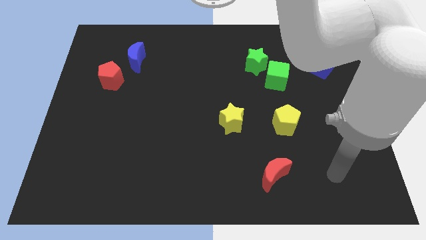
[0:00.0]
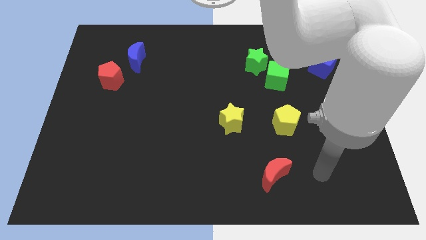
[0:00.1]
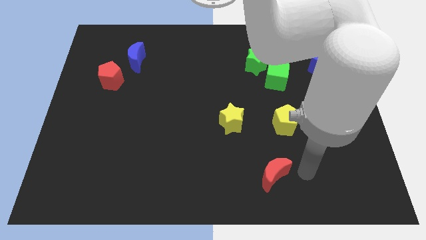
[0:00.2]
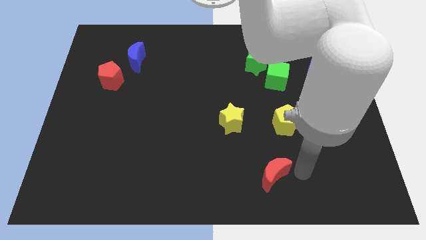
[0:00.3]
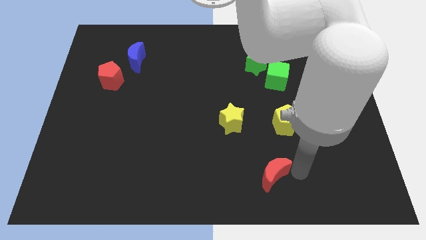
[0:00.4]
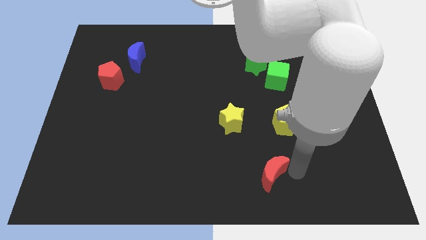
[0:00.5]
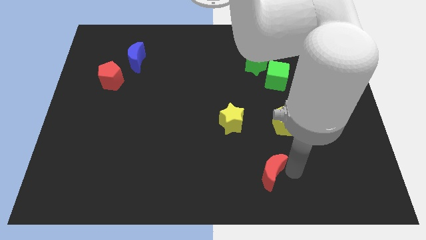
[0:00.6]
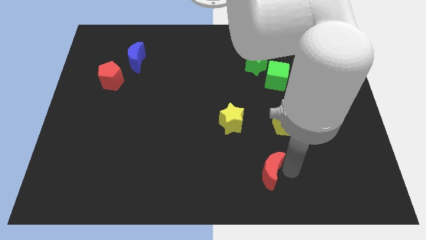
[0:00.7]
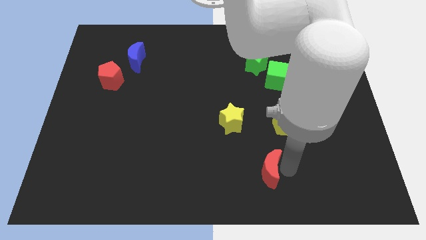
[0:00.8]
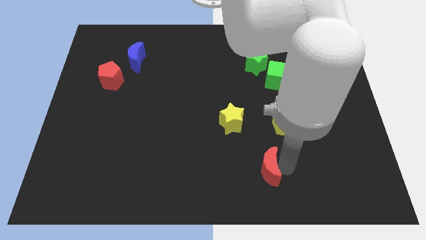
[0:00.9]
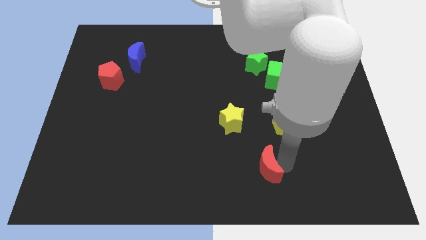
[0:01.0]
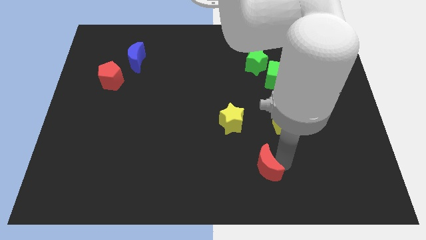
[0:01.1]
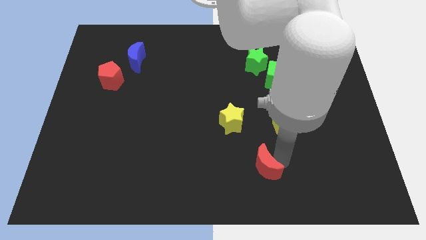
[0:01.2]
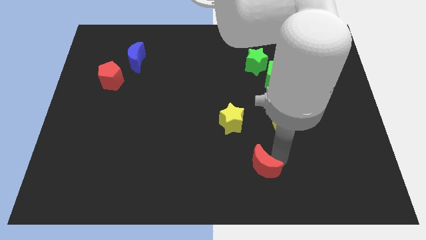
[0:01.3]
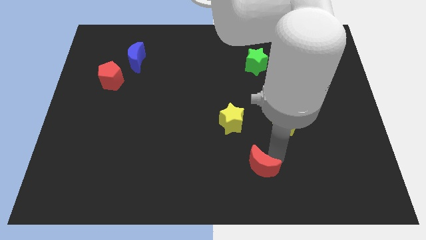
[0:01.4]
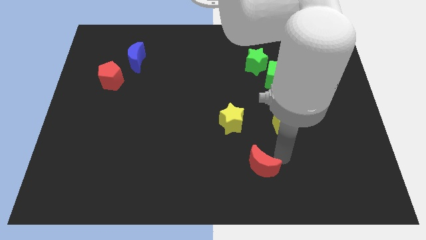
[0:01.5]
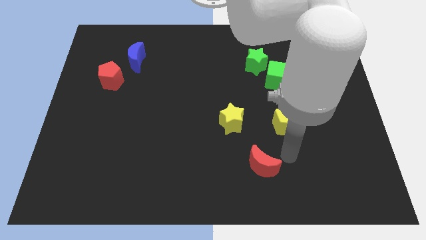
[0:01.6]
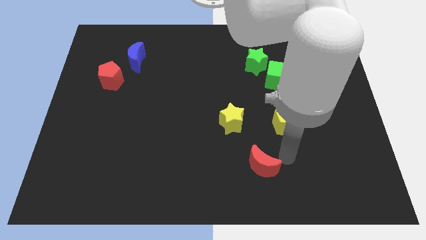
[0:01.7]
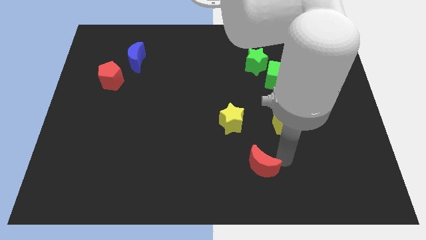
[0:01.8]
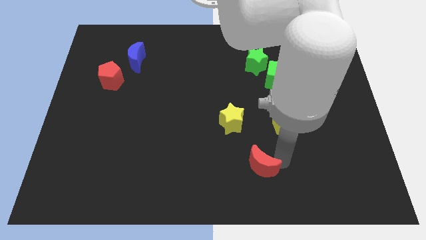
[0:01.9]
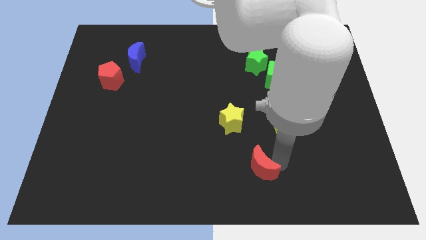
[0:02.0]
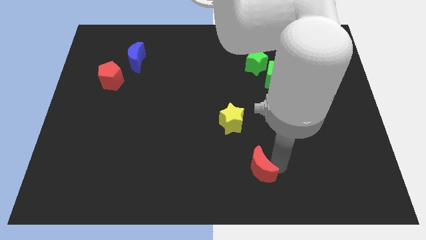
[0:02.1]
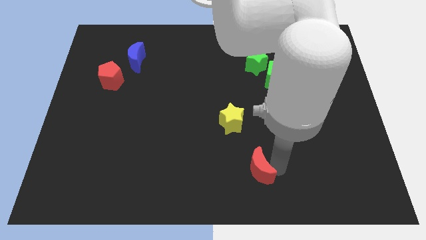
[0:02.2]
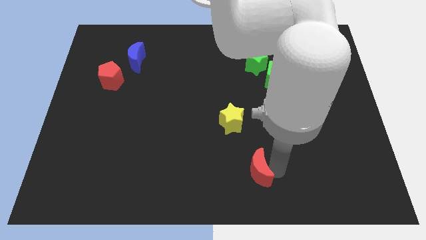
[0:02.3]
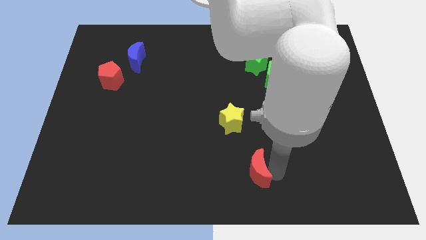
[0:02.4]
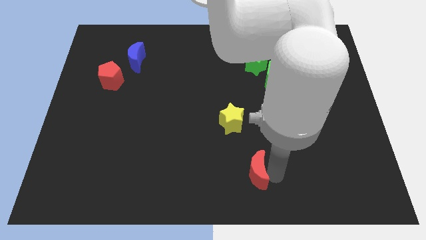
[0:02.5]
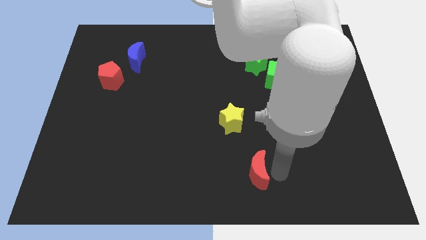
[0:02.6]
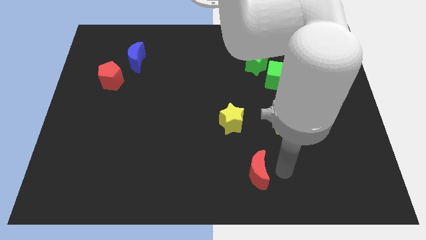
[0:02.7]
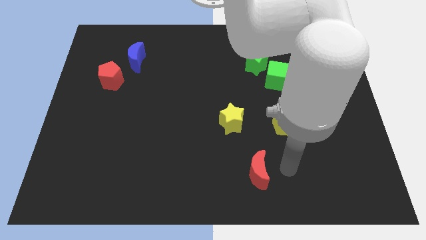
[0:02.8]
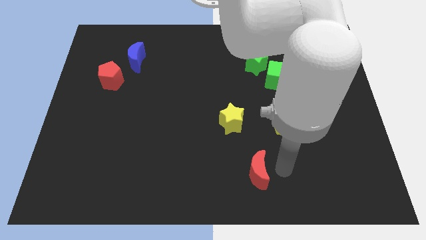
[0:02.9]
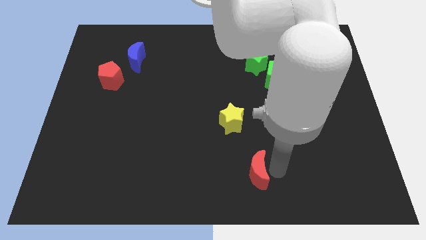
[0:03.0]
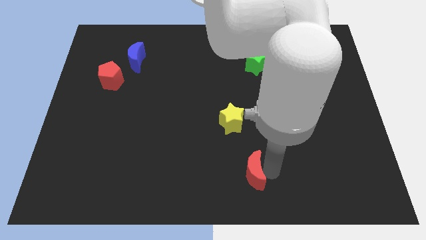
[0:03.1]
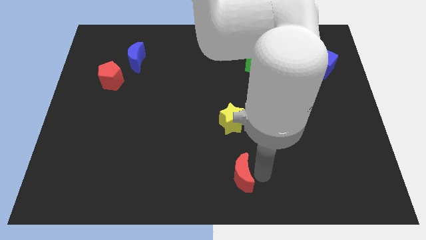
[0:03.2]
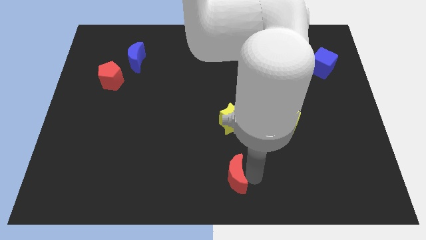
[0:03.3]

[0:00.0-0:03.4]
slide the red moon a little bit left

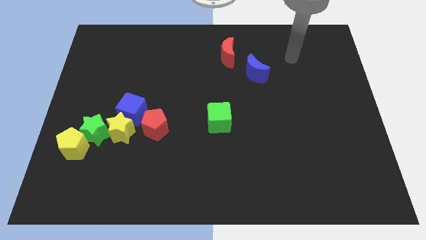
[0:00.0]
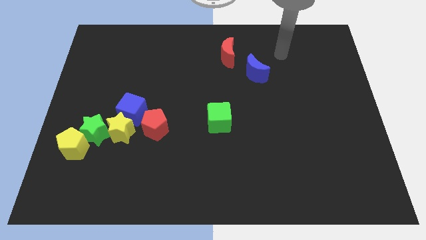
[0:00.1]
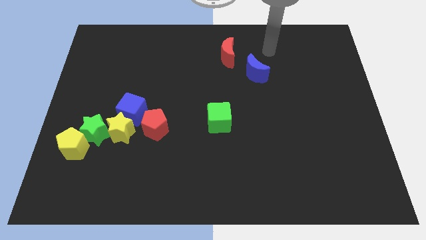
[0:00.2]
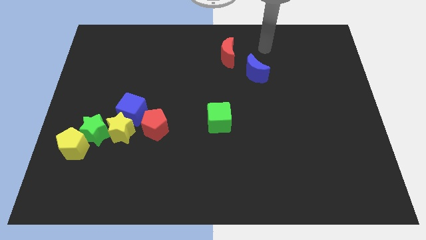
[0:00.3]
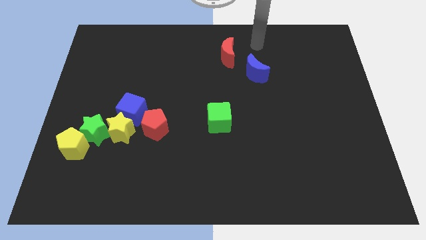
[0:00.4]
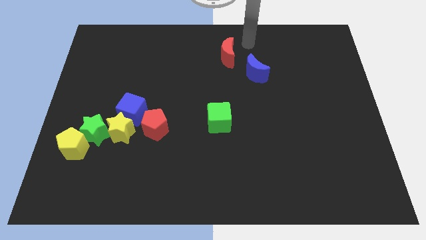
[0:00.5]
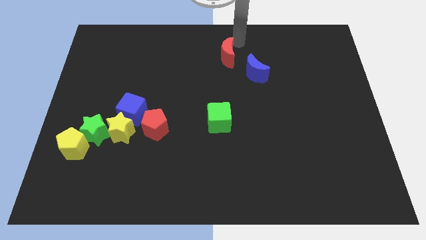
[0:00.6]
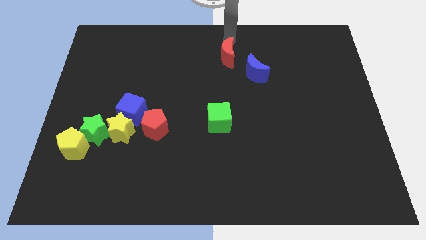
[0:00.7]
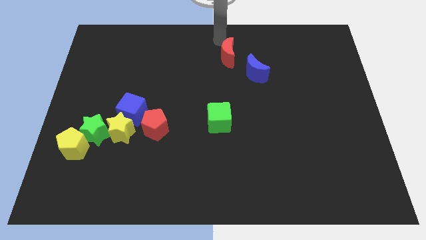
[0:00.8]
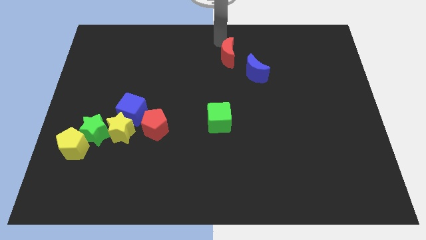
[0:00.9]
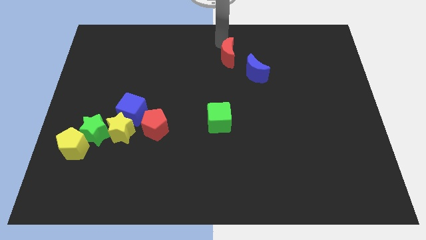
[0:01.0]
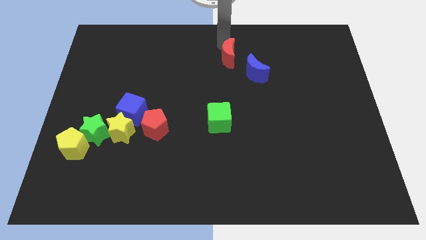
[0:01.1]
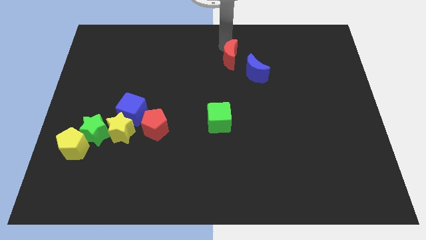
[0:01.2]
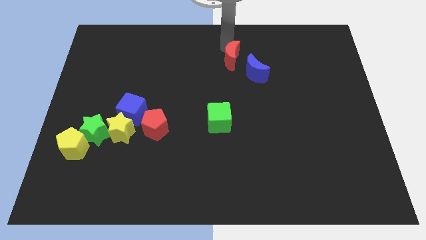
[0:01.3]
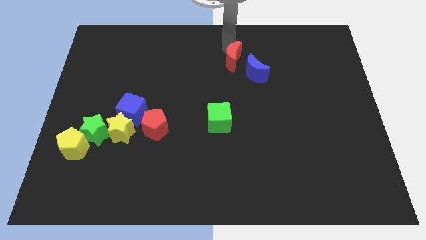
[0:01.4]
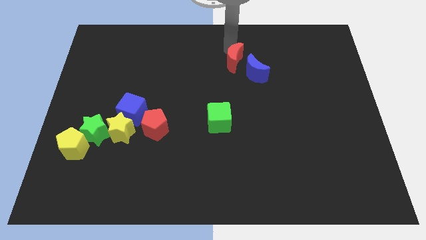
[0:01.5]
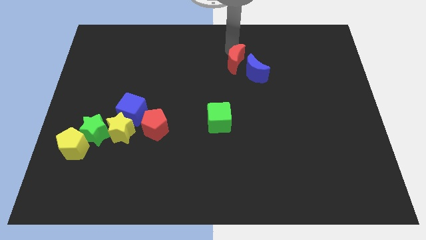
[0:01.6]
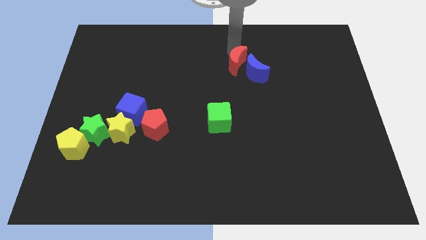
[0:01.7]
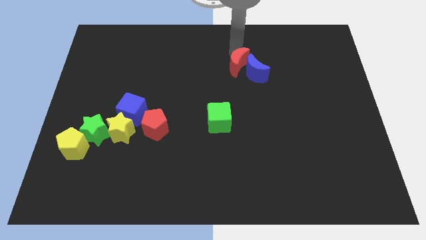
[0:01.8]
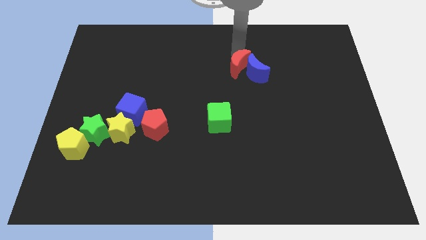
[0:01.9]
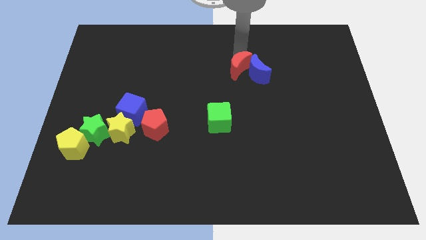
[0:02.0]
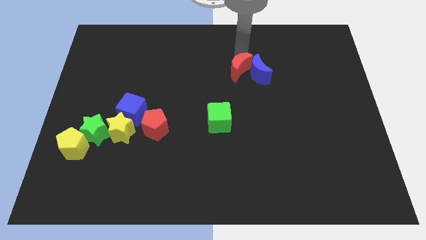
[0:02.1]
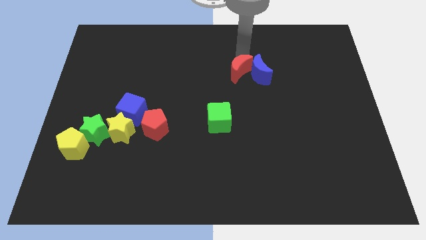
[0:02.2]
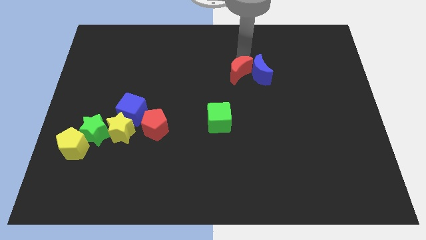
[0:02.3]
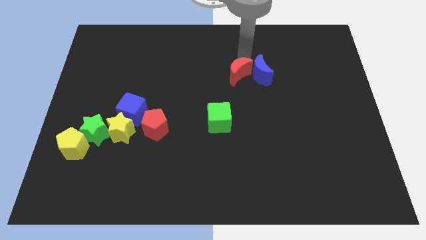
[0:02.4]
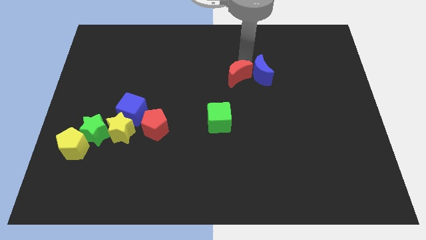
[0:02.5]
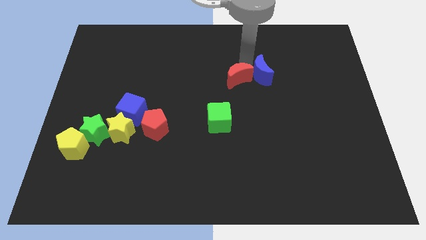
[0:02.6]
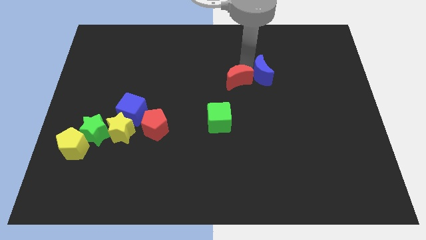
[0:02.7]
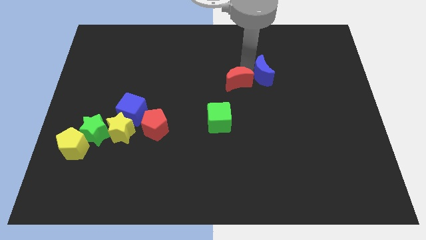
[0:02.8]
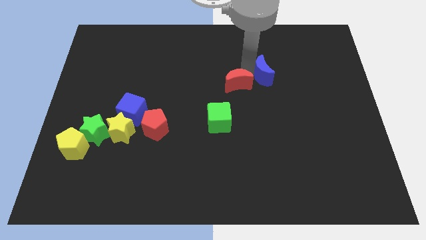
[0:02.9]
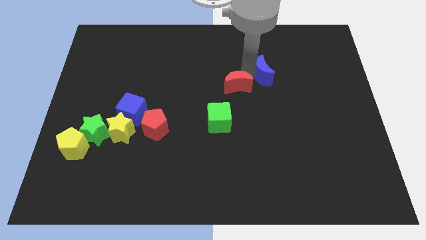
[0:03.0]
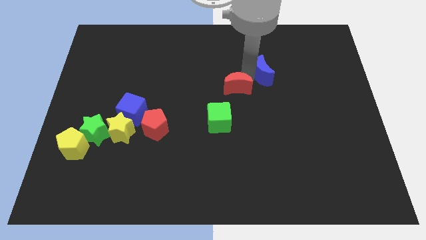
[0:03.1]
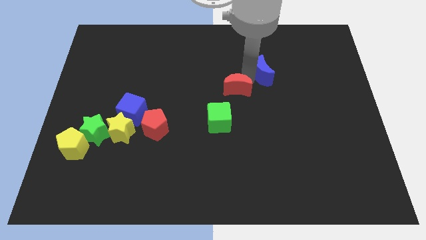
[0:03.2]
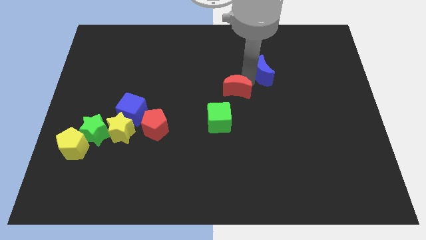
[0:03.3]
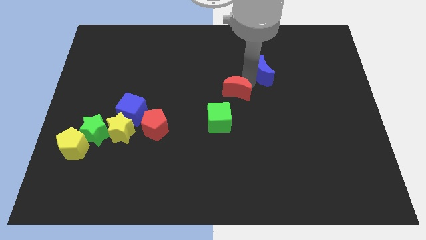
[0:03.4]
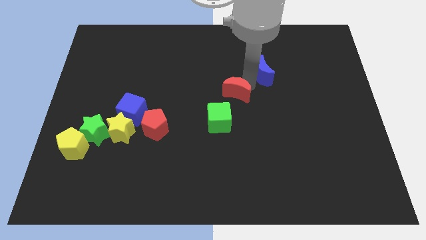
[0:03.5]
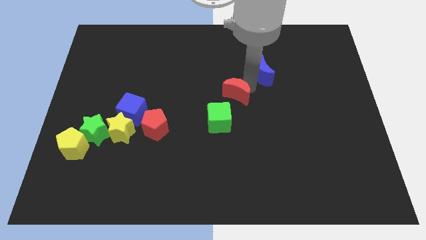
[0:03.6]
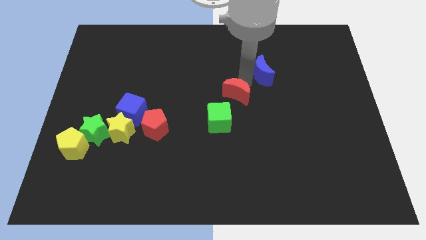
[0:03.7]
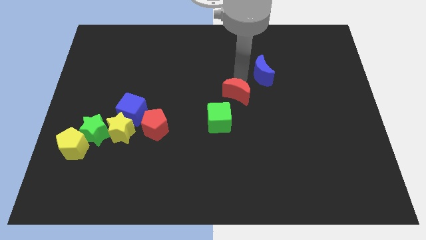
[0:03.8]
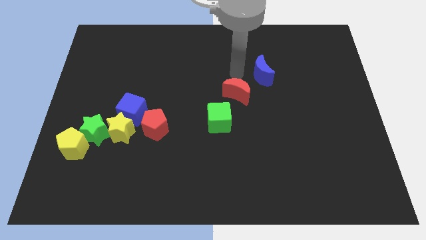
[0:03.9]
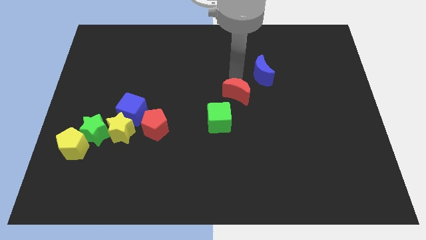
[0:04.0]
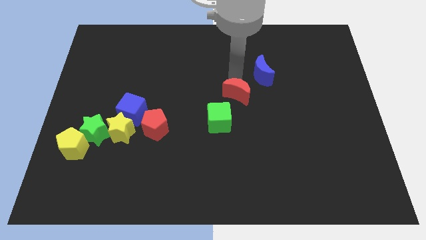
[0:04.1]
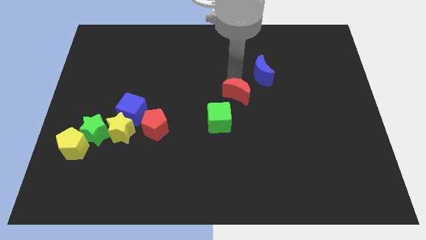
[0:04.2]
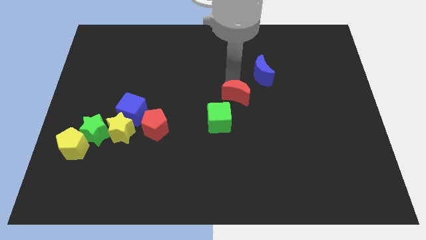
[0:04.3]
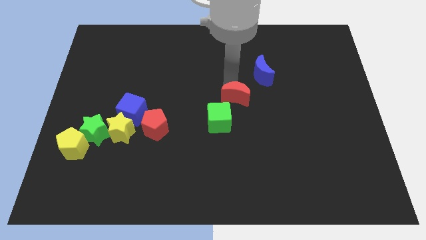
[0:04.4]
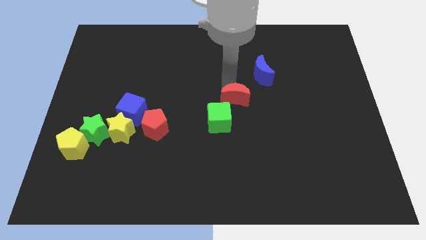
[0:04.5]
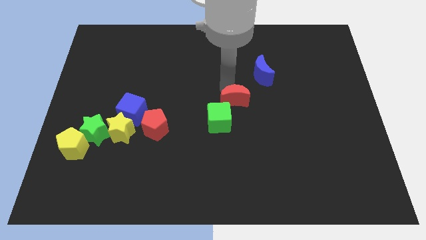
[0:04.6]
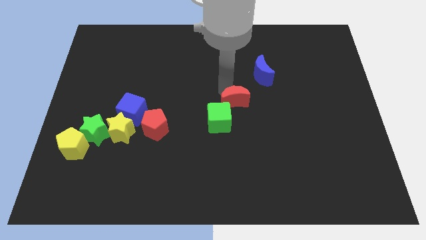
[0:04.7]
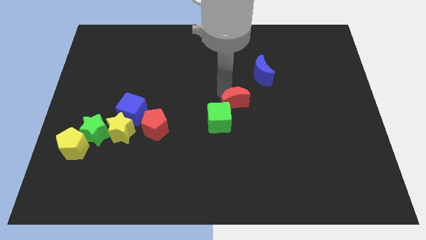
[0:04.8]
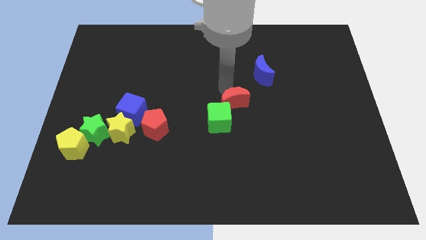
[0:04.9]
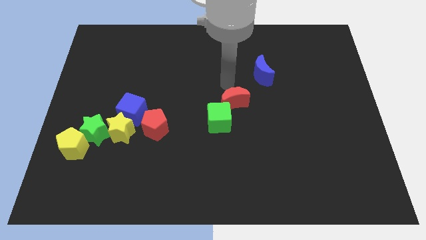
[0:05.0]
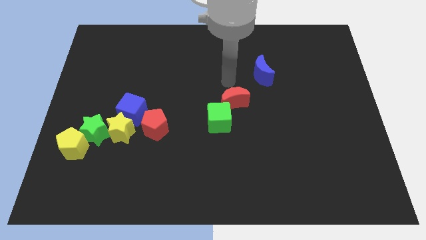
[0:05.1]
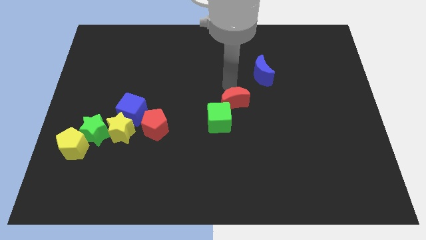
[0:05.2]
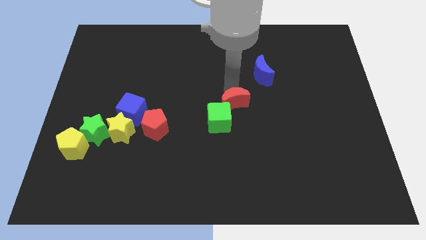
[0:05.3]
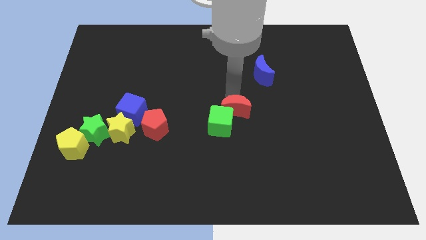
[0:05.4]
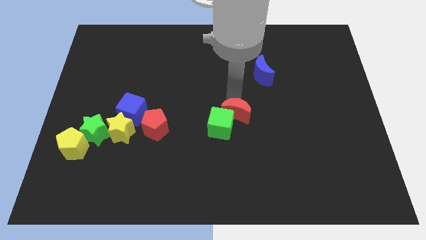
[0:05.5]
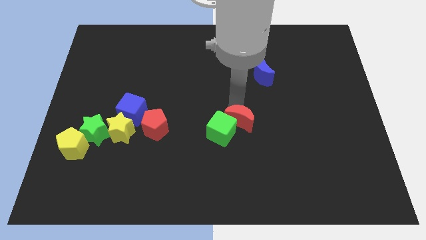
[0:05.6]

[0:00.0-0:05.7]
slide the red moon down
